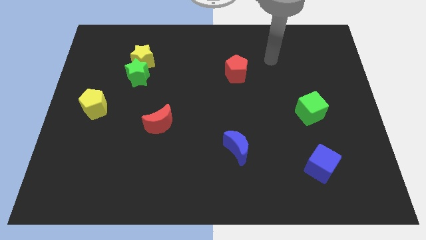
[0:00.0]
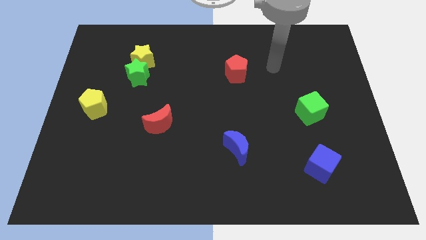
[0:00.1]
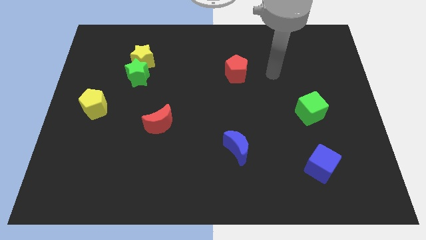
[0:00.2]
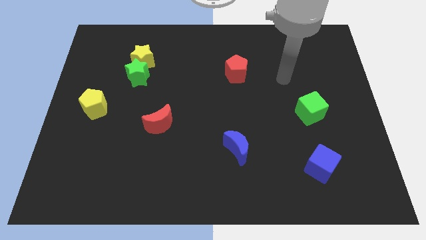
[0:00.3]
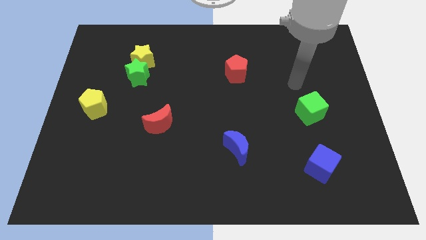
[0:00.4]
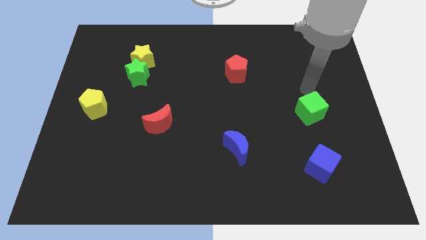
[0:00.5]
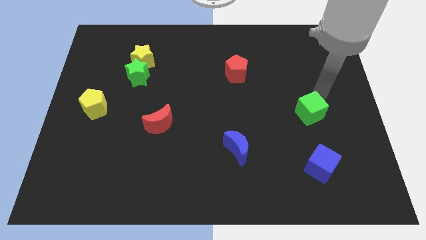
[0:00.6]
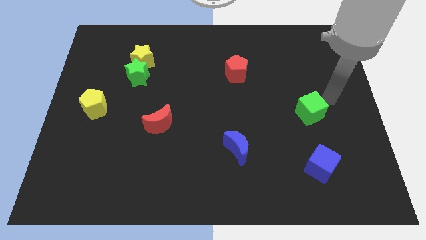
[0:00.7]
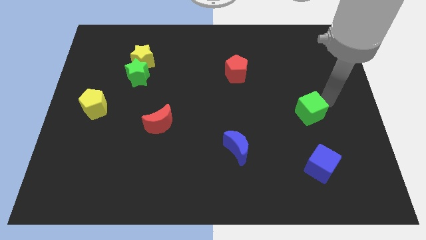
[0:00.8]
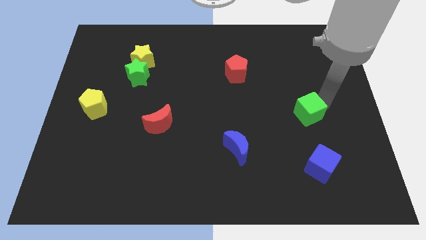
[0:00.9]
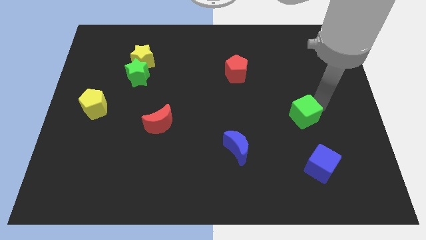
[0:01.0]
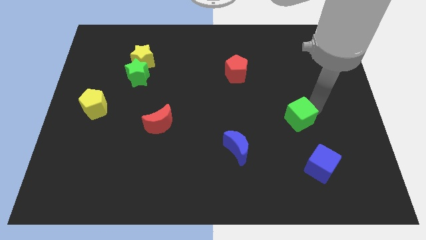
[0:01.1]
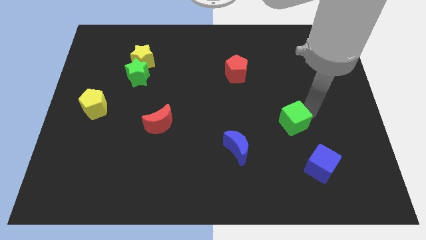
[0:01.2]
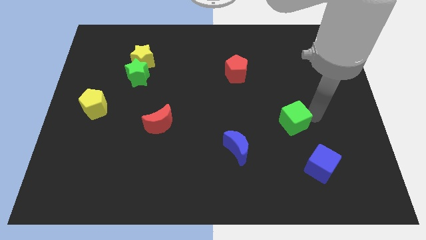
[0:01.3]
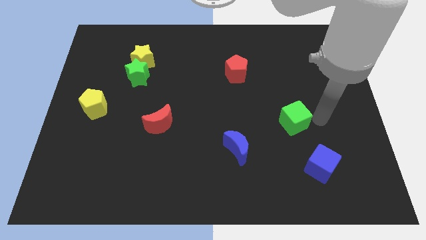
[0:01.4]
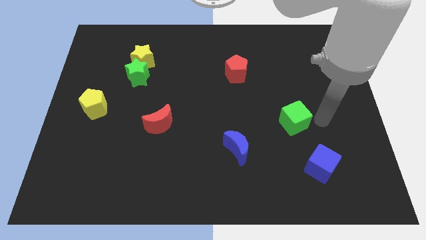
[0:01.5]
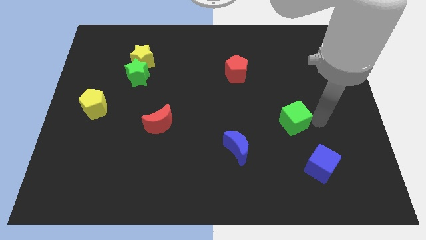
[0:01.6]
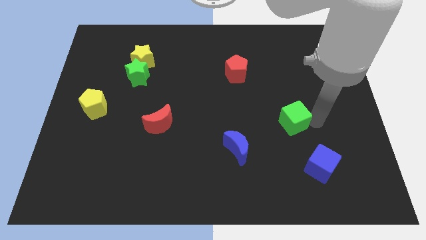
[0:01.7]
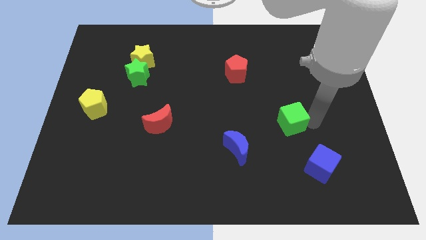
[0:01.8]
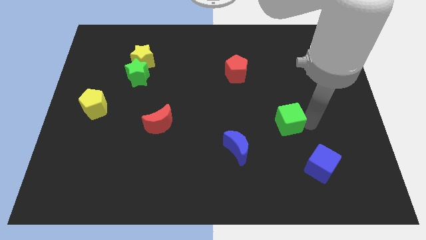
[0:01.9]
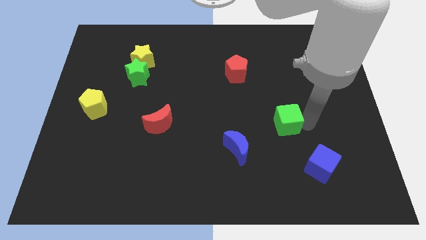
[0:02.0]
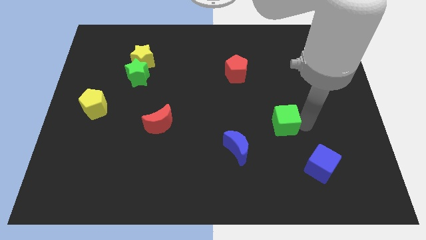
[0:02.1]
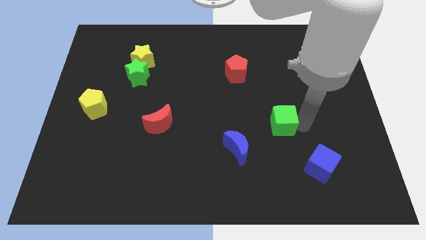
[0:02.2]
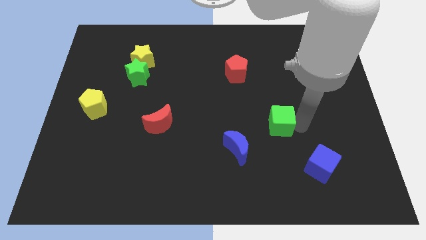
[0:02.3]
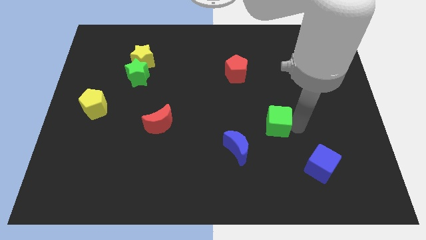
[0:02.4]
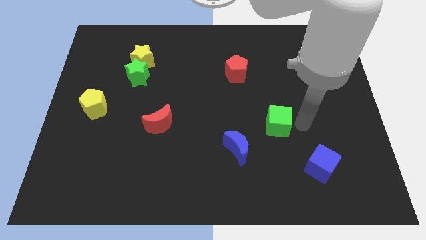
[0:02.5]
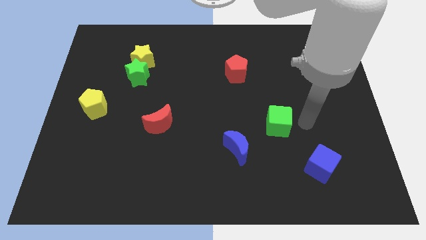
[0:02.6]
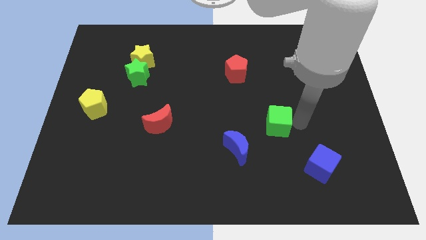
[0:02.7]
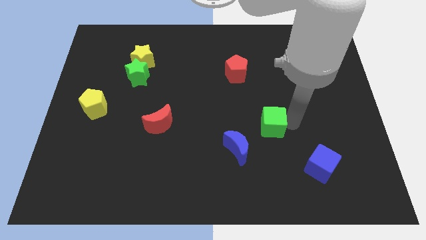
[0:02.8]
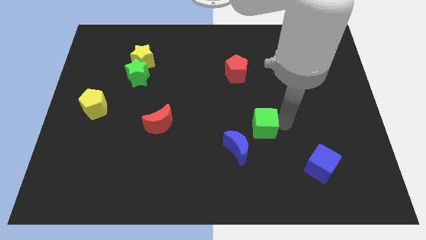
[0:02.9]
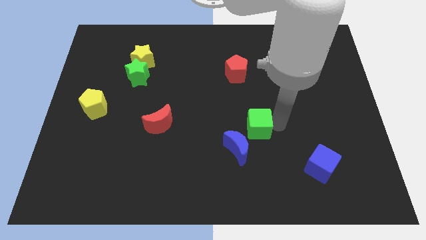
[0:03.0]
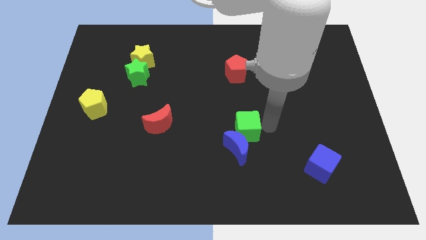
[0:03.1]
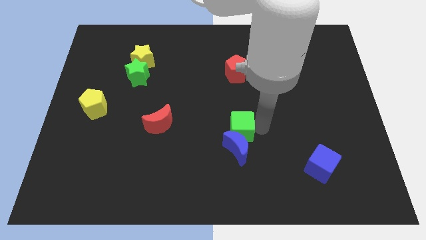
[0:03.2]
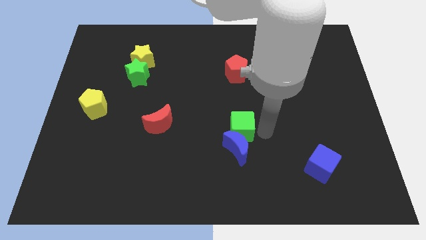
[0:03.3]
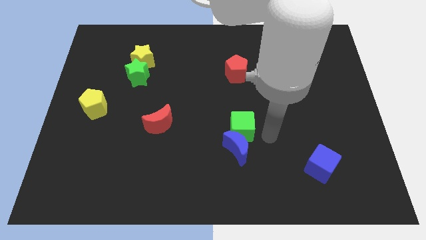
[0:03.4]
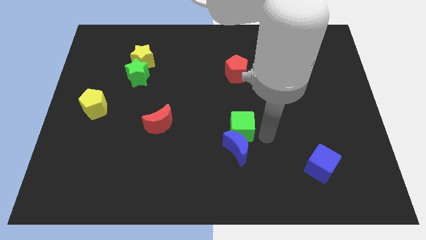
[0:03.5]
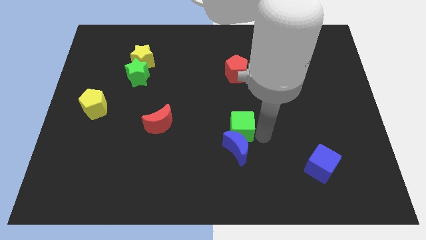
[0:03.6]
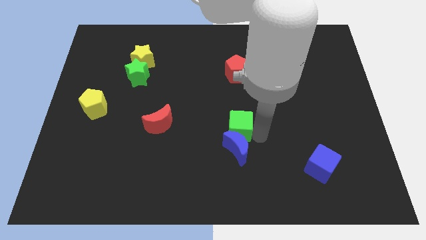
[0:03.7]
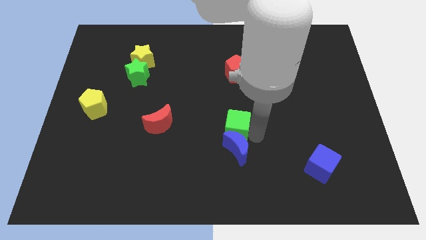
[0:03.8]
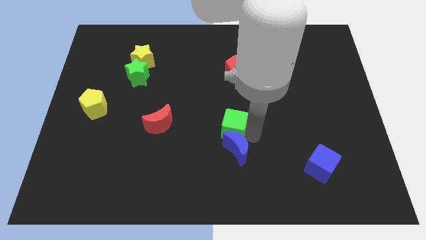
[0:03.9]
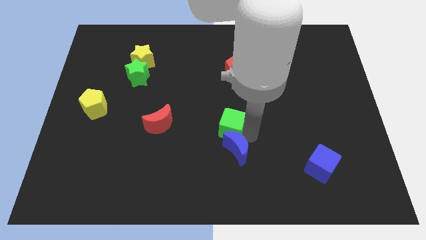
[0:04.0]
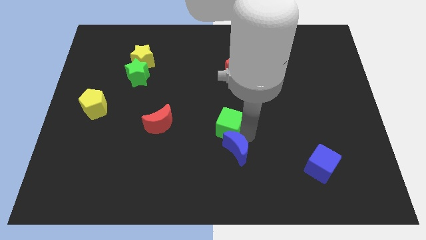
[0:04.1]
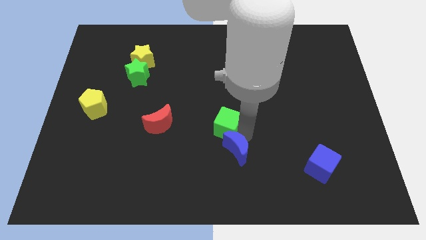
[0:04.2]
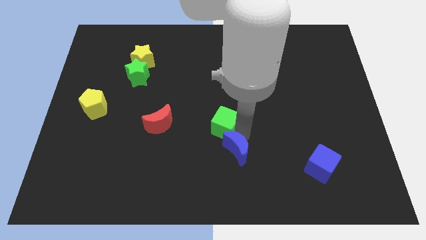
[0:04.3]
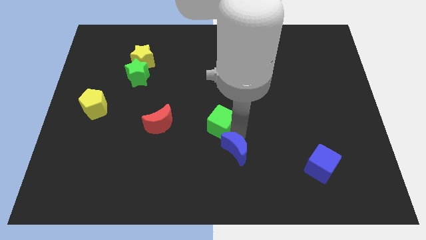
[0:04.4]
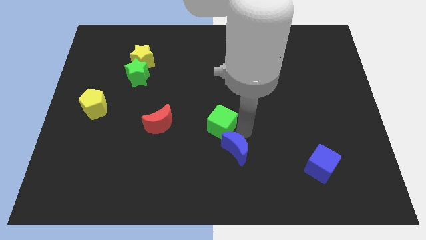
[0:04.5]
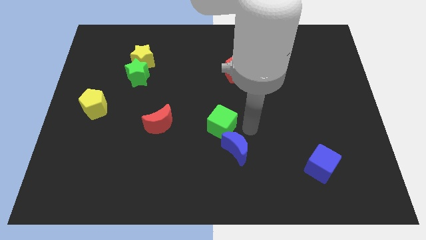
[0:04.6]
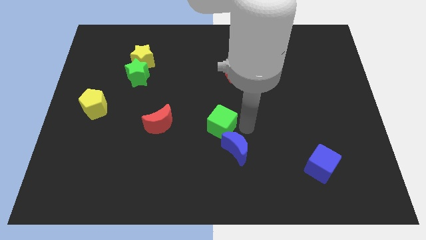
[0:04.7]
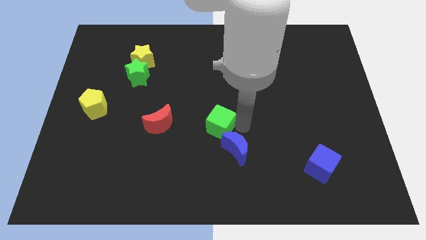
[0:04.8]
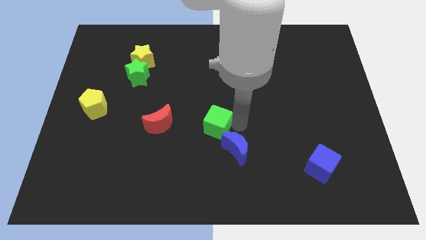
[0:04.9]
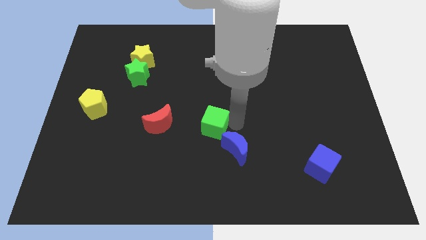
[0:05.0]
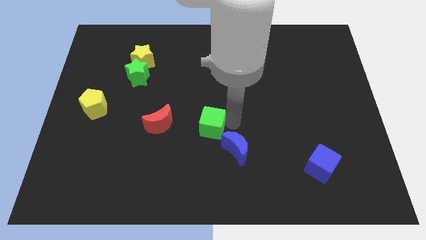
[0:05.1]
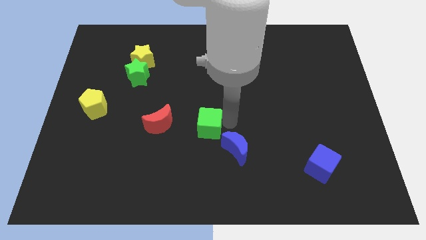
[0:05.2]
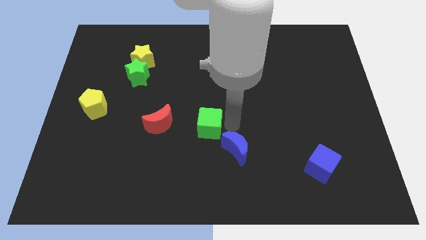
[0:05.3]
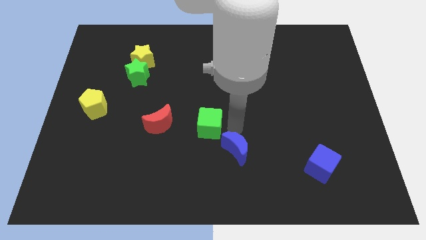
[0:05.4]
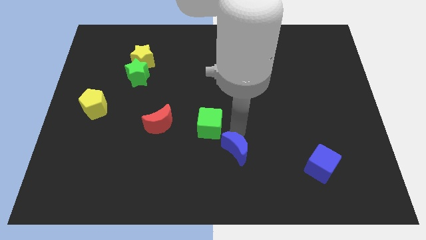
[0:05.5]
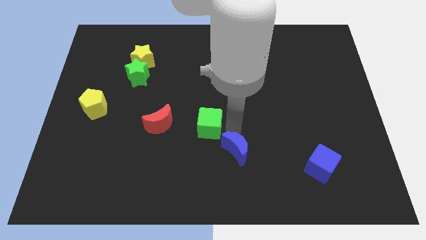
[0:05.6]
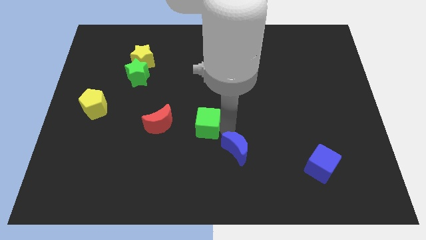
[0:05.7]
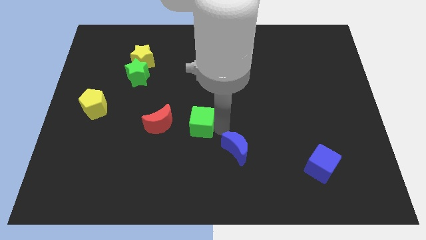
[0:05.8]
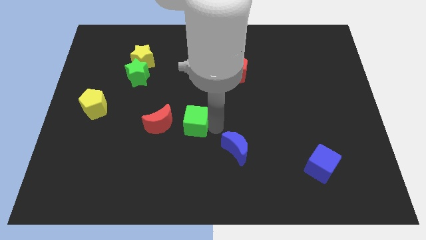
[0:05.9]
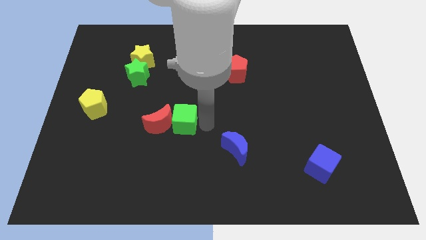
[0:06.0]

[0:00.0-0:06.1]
move the green cube close to the red moon

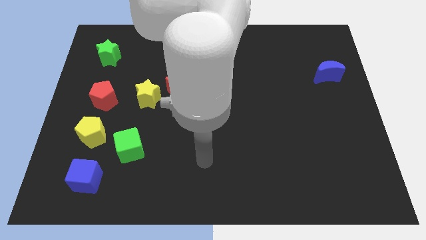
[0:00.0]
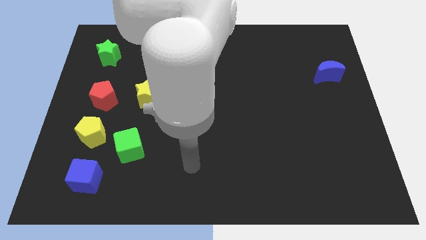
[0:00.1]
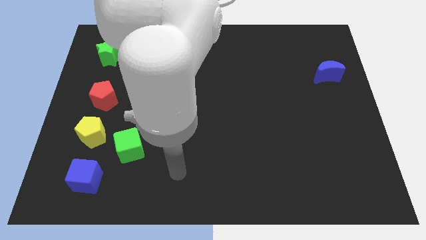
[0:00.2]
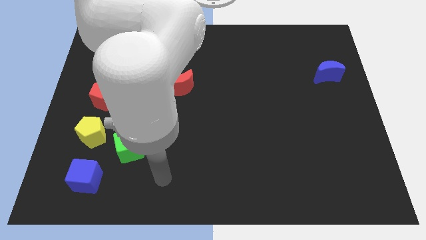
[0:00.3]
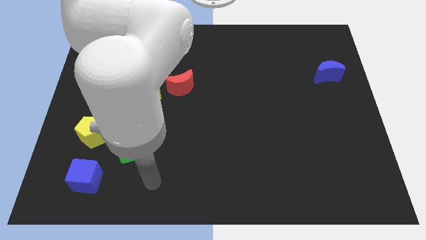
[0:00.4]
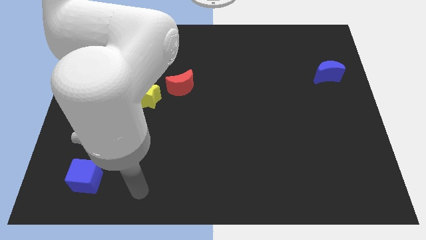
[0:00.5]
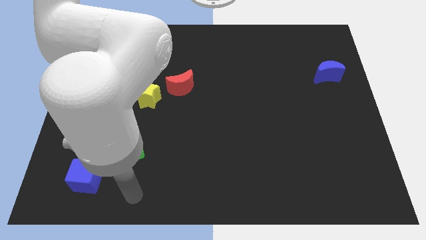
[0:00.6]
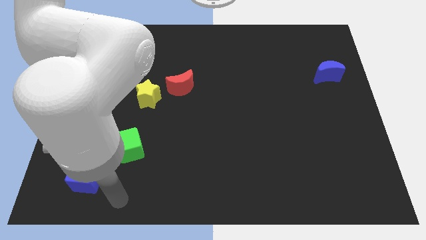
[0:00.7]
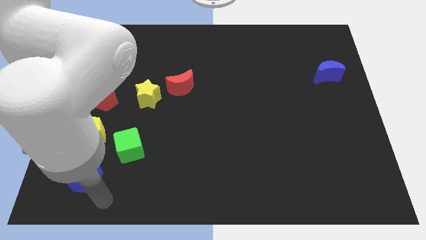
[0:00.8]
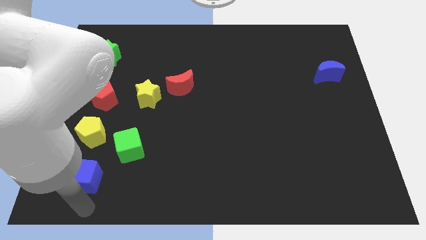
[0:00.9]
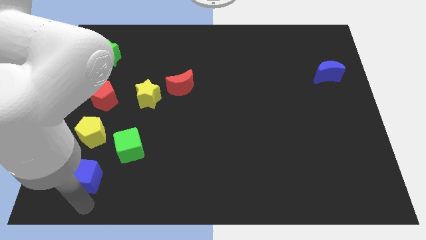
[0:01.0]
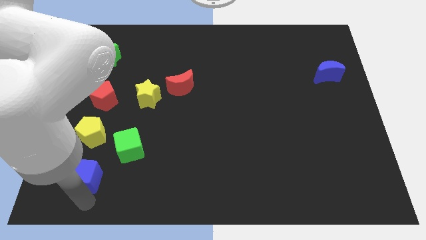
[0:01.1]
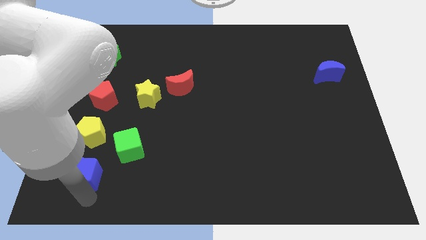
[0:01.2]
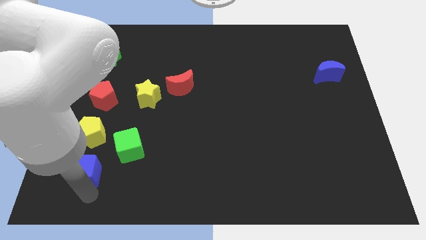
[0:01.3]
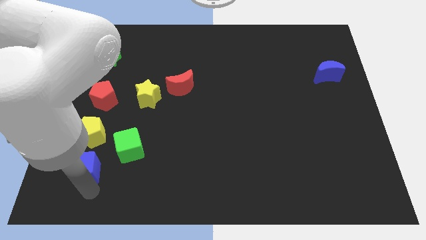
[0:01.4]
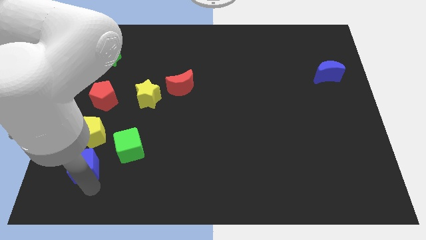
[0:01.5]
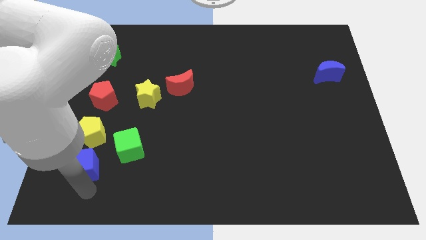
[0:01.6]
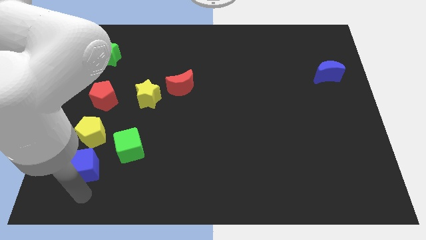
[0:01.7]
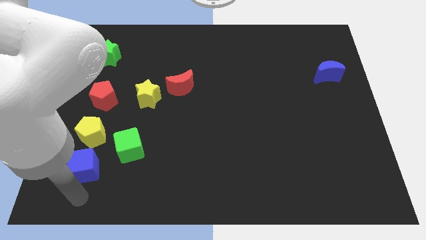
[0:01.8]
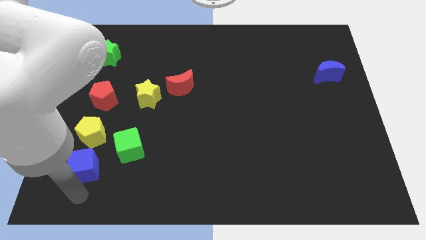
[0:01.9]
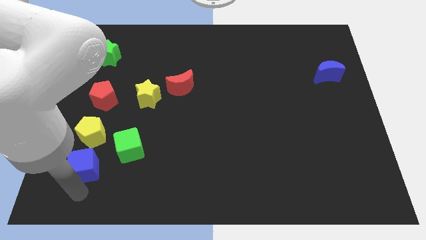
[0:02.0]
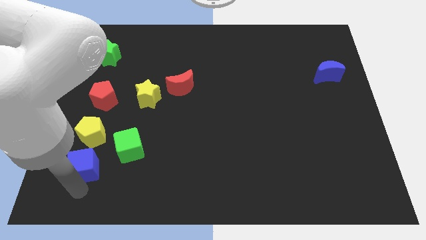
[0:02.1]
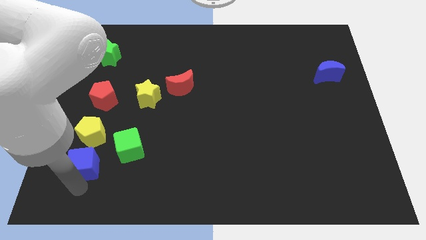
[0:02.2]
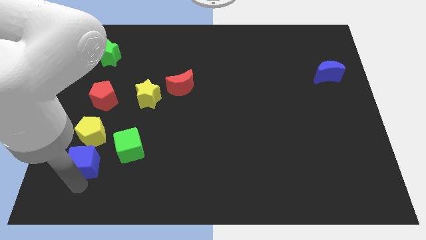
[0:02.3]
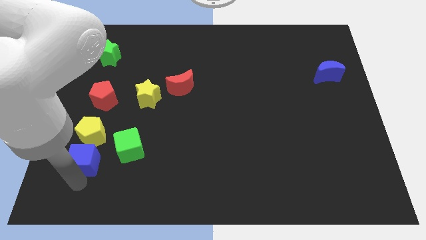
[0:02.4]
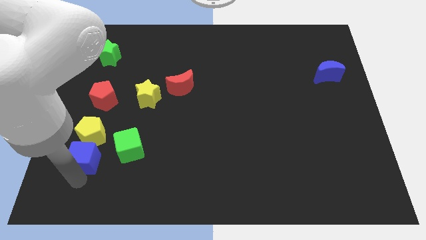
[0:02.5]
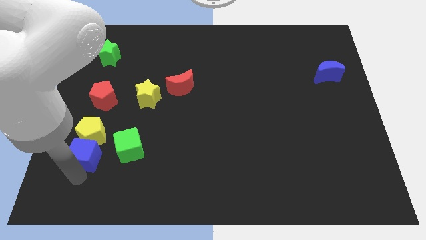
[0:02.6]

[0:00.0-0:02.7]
push the blue cube next to the yellow pentagon
